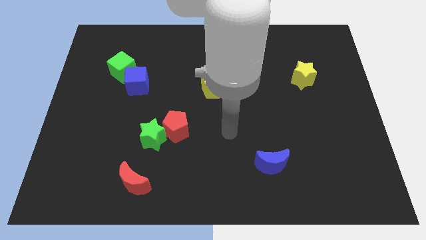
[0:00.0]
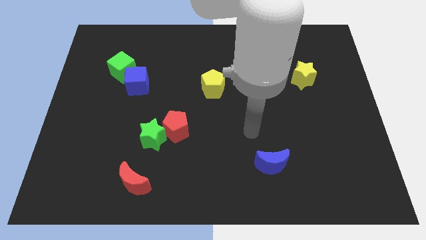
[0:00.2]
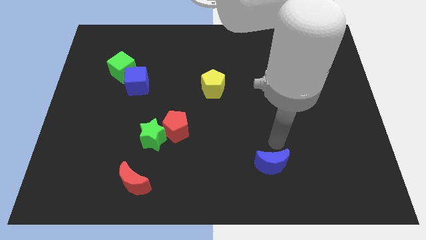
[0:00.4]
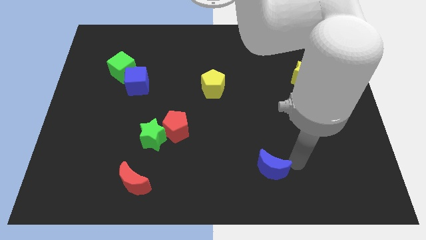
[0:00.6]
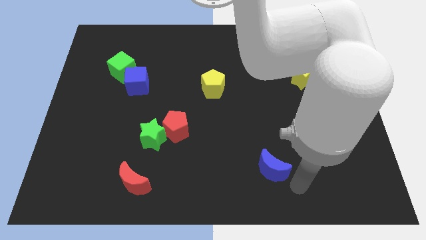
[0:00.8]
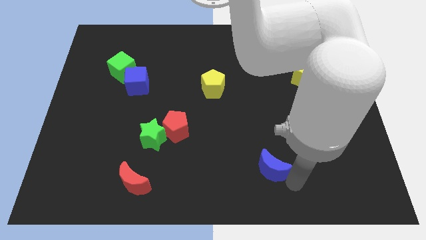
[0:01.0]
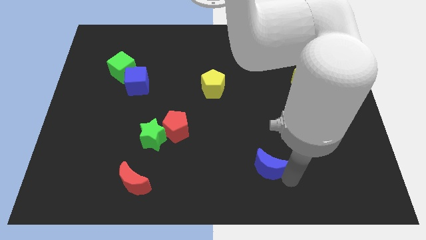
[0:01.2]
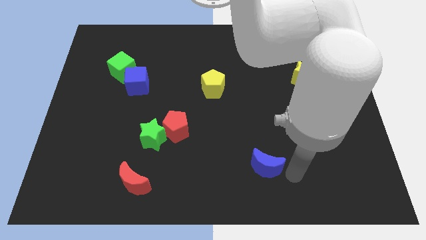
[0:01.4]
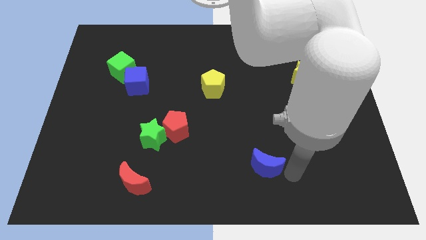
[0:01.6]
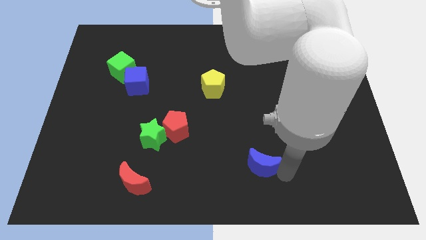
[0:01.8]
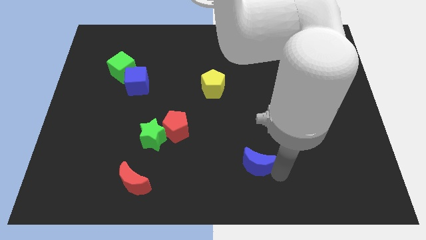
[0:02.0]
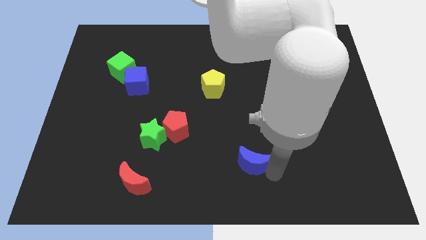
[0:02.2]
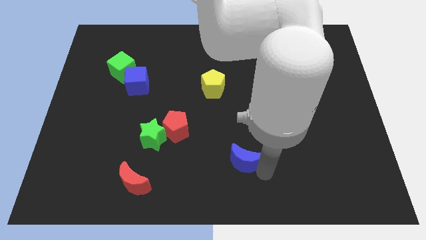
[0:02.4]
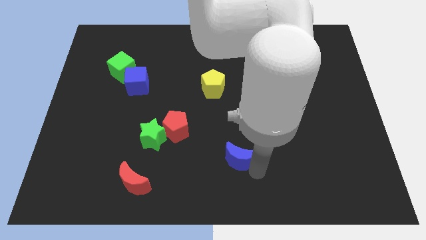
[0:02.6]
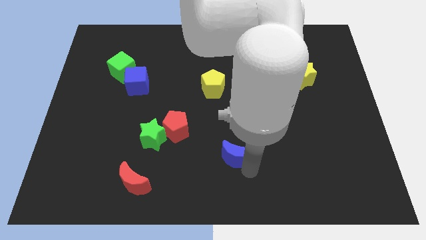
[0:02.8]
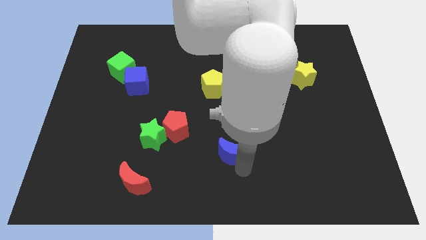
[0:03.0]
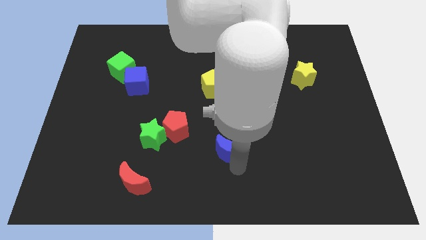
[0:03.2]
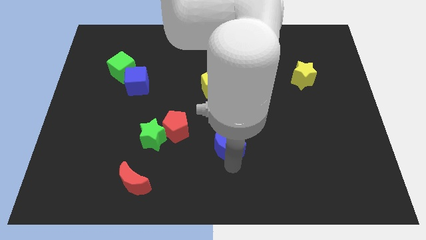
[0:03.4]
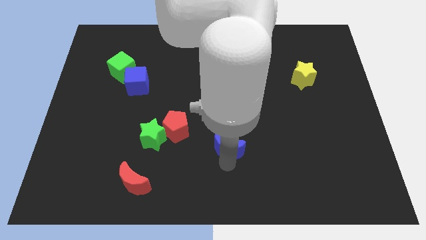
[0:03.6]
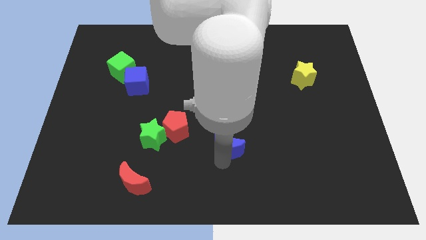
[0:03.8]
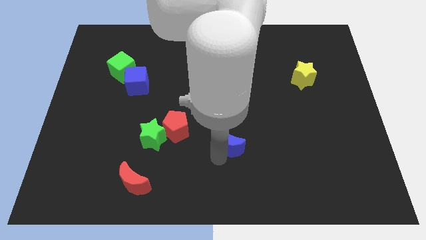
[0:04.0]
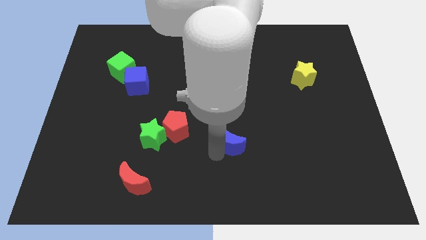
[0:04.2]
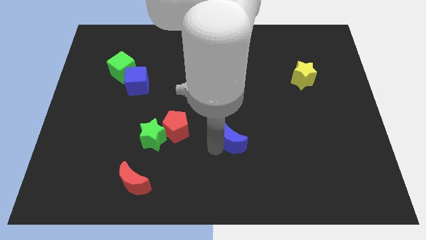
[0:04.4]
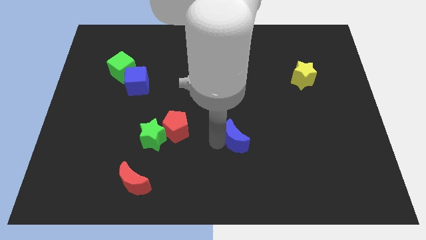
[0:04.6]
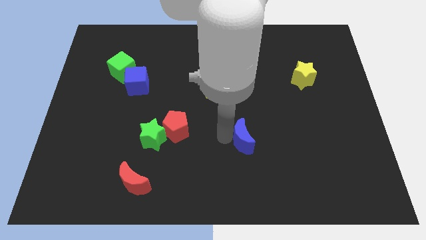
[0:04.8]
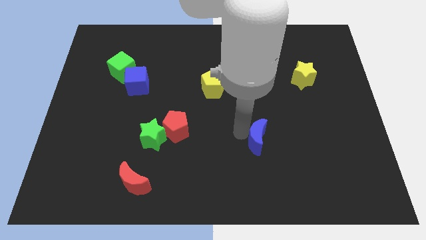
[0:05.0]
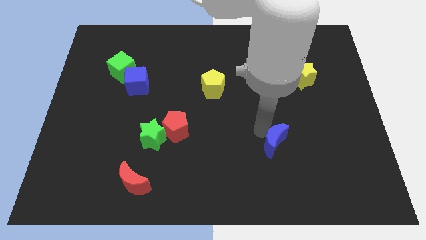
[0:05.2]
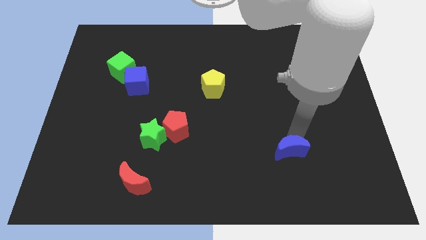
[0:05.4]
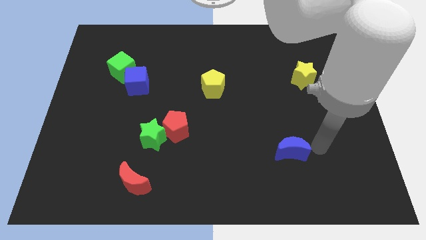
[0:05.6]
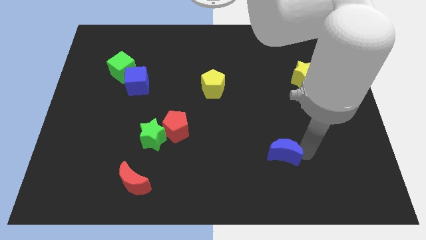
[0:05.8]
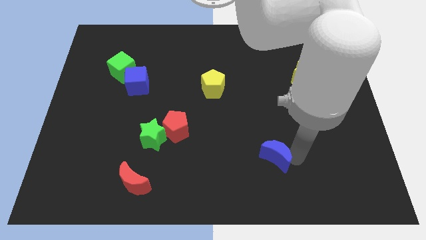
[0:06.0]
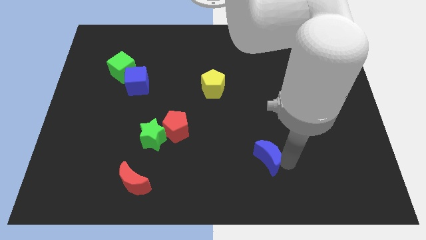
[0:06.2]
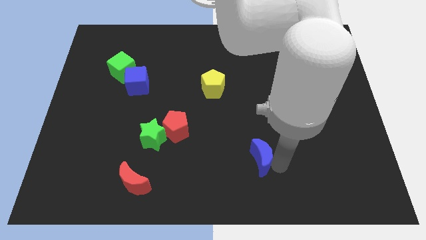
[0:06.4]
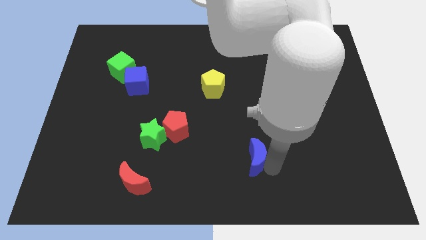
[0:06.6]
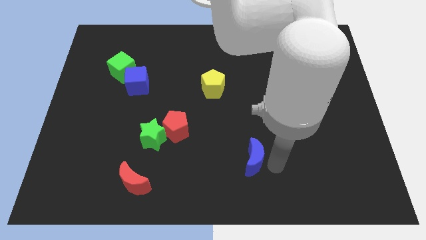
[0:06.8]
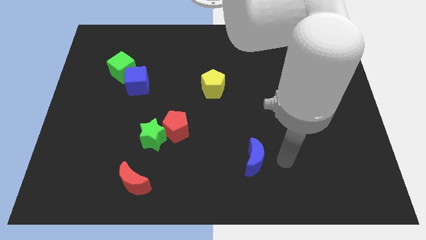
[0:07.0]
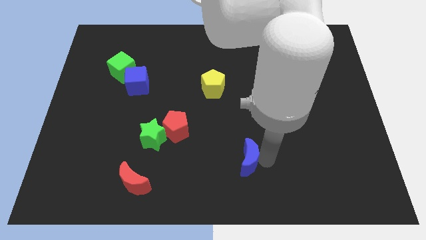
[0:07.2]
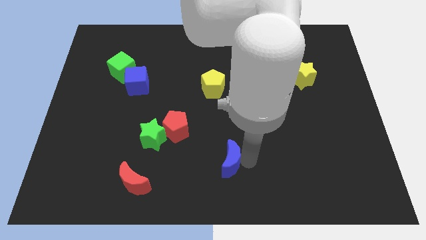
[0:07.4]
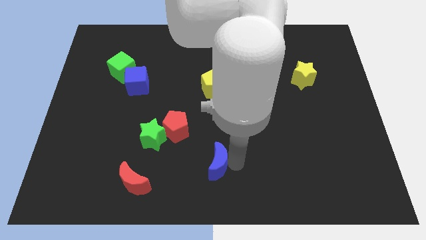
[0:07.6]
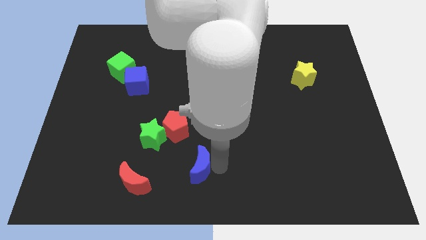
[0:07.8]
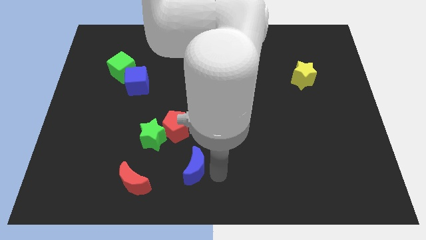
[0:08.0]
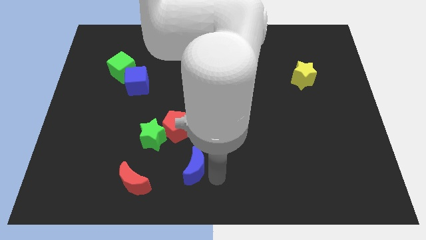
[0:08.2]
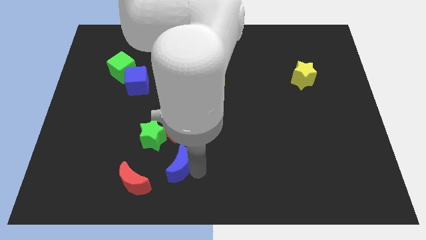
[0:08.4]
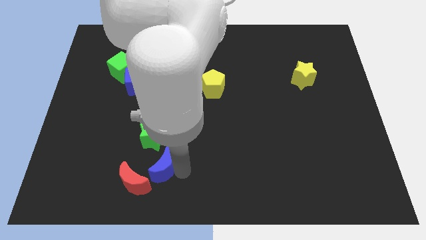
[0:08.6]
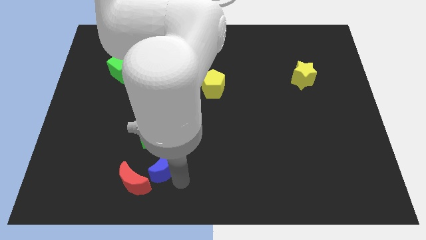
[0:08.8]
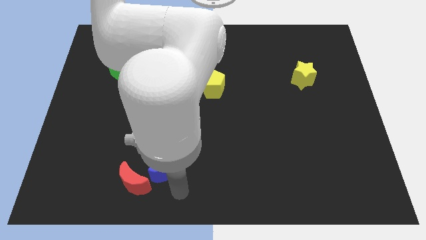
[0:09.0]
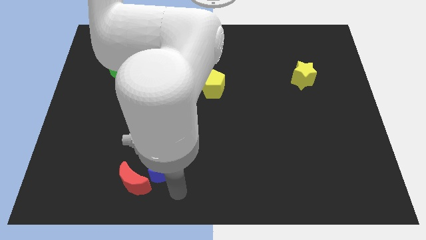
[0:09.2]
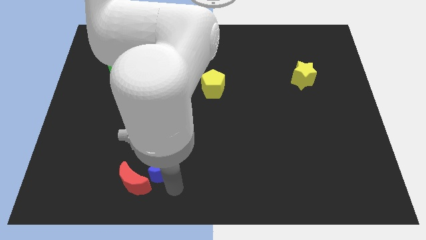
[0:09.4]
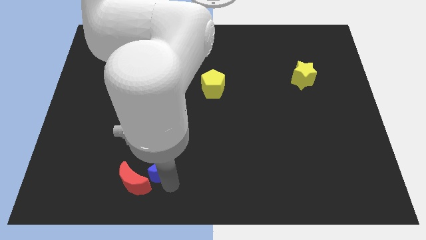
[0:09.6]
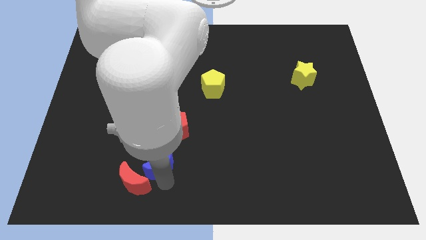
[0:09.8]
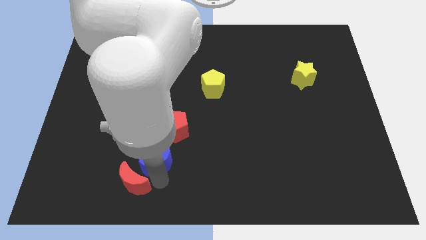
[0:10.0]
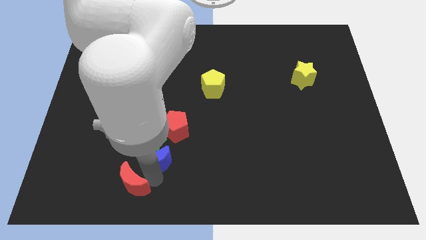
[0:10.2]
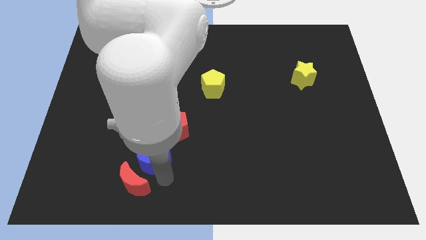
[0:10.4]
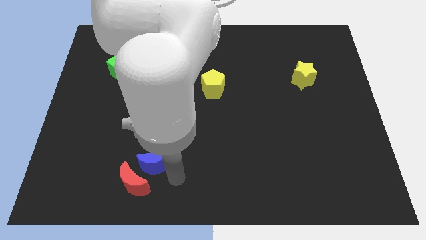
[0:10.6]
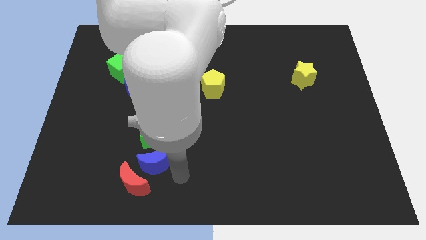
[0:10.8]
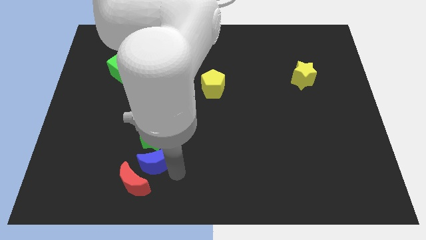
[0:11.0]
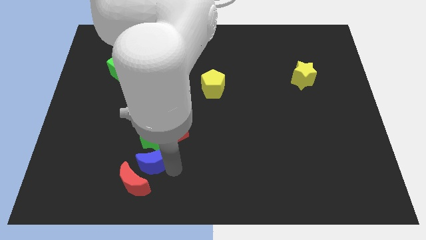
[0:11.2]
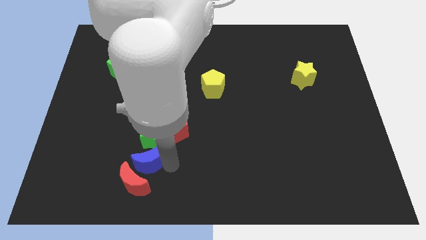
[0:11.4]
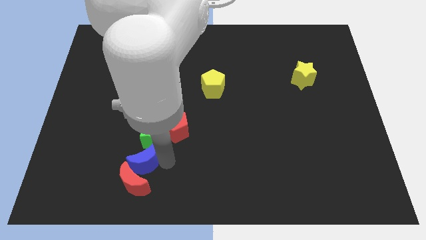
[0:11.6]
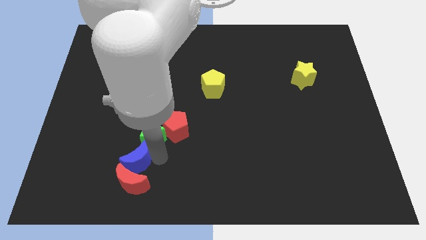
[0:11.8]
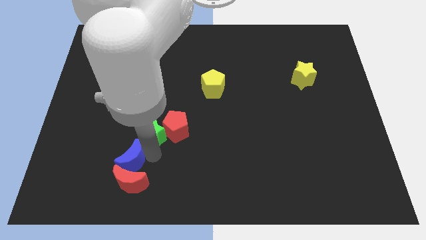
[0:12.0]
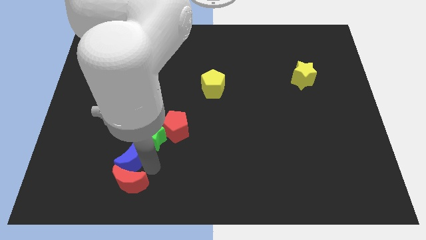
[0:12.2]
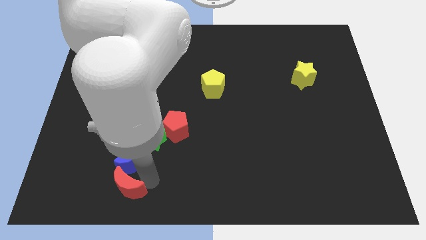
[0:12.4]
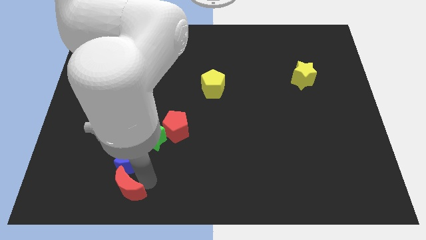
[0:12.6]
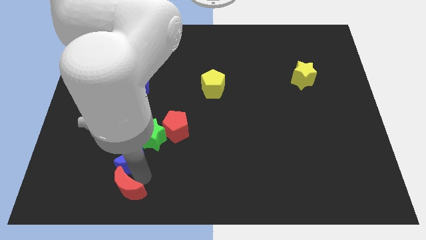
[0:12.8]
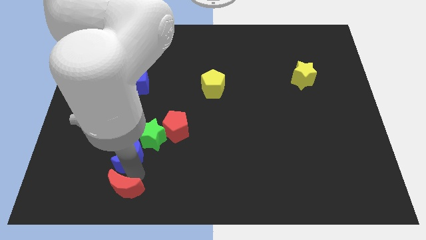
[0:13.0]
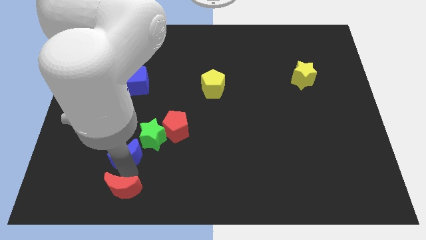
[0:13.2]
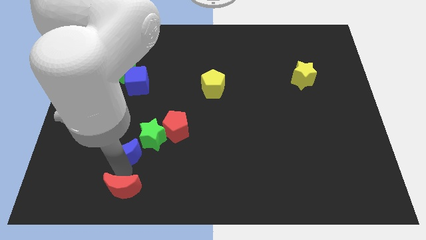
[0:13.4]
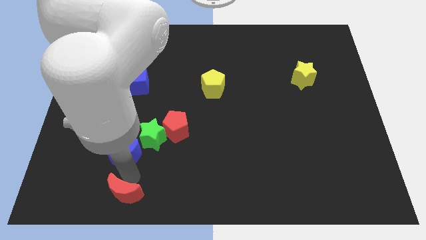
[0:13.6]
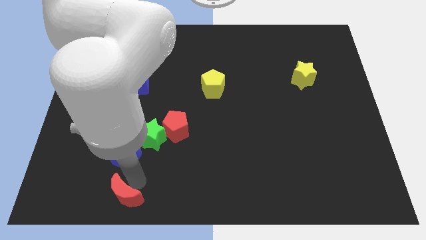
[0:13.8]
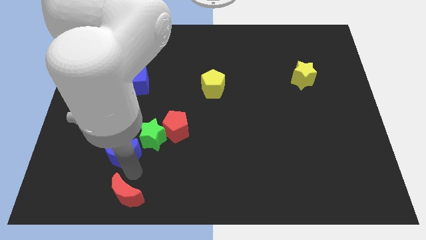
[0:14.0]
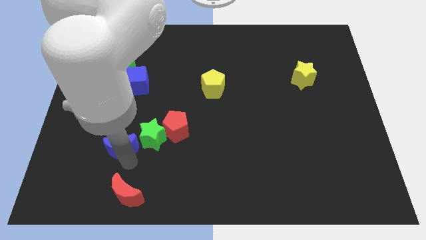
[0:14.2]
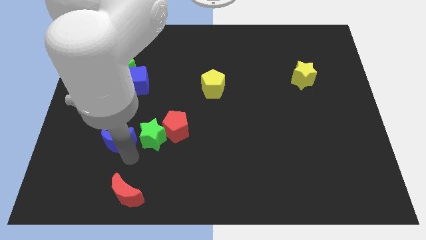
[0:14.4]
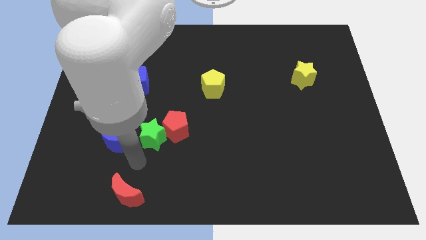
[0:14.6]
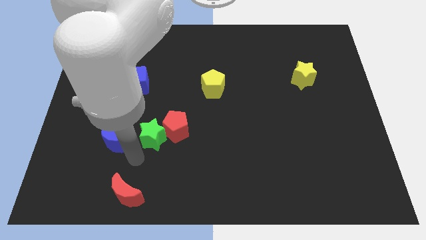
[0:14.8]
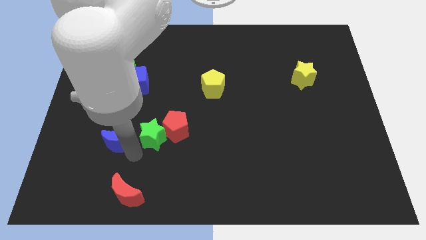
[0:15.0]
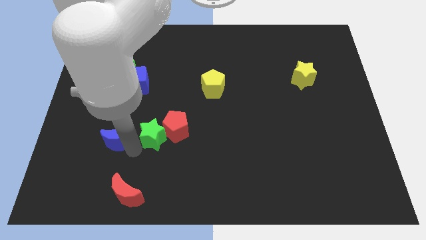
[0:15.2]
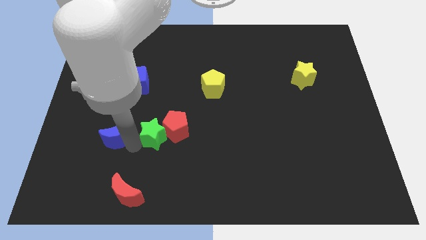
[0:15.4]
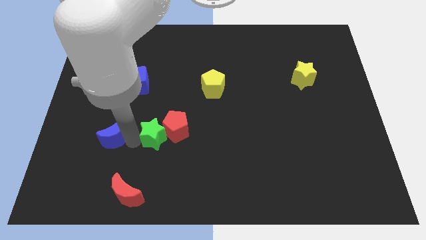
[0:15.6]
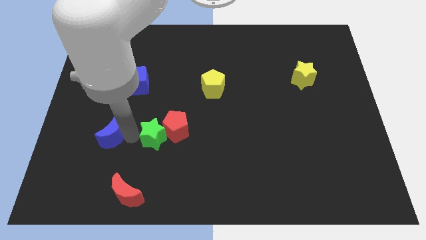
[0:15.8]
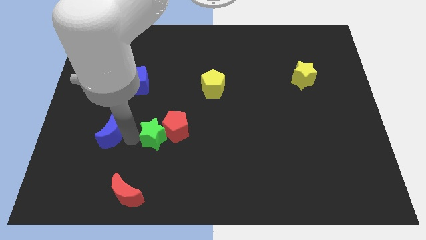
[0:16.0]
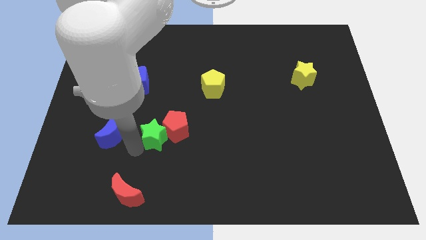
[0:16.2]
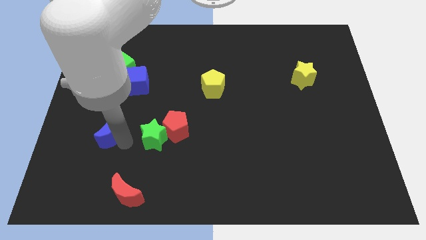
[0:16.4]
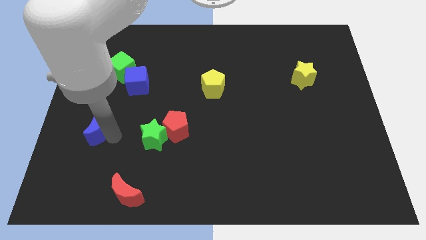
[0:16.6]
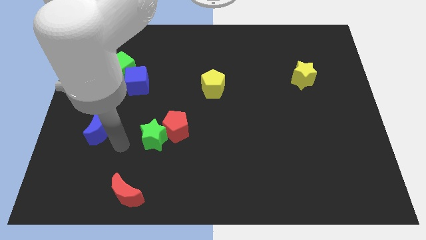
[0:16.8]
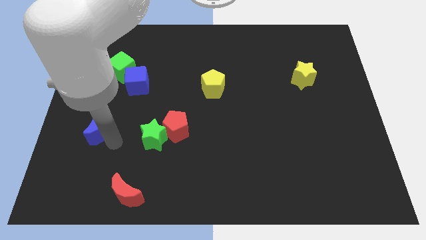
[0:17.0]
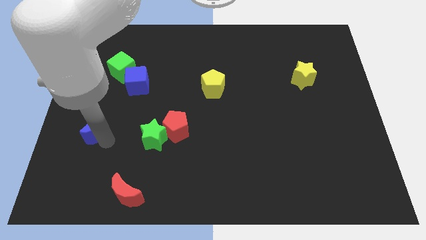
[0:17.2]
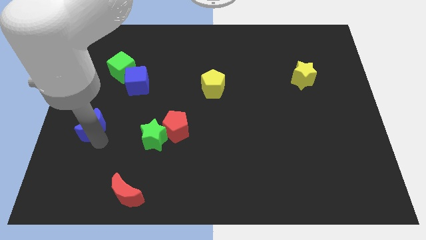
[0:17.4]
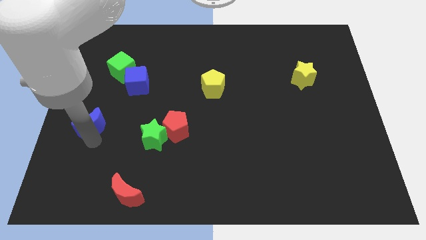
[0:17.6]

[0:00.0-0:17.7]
move the blue moon to the left side
